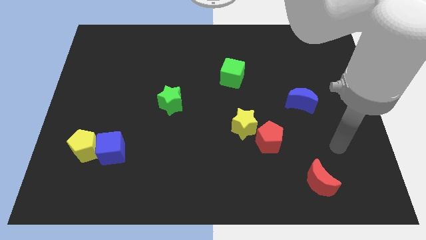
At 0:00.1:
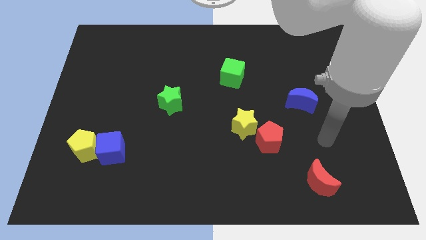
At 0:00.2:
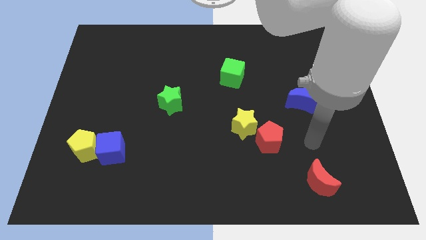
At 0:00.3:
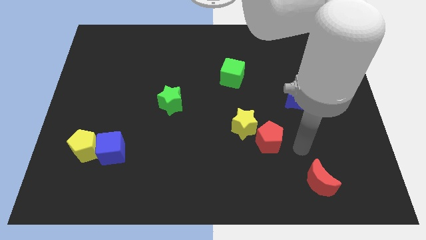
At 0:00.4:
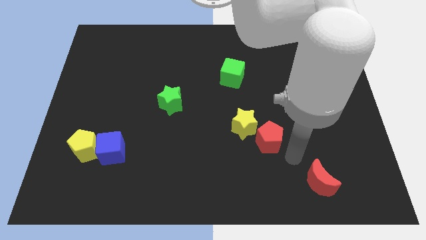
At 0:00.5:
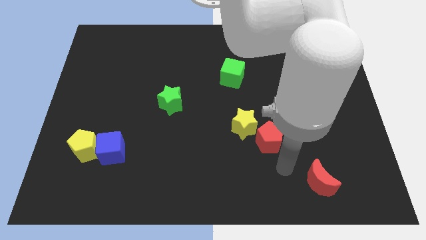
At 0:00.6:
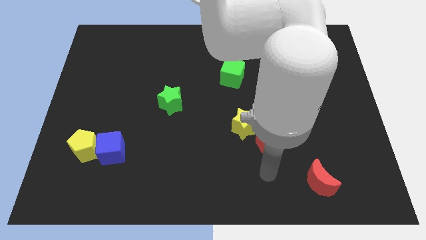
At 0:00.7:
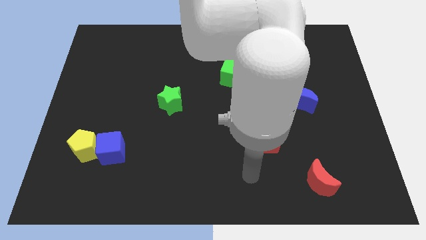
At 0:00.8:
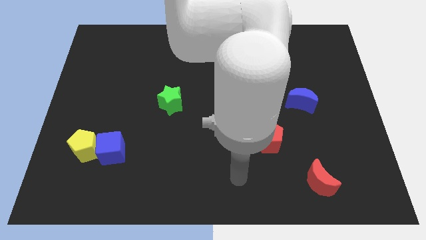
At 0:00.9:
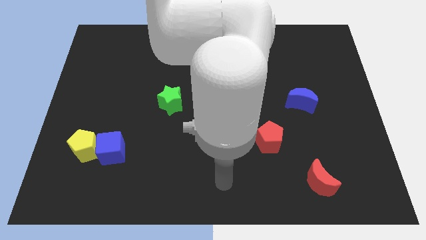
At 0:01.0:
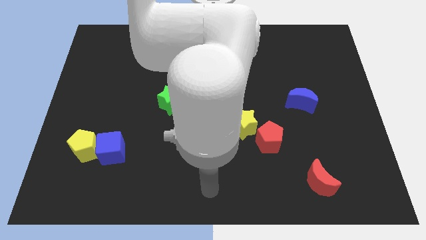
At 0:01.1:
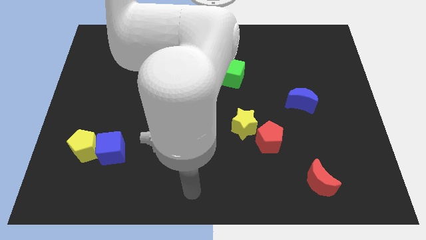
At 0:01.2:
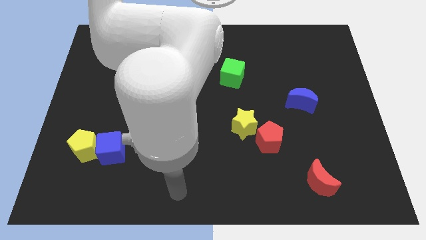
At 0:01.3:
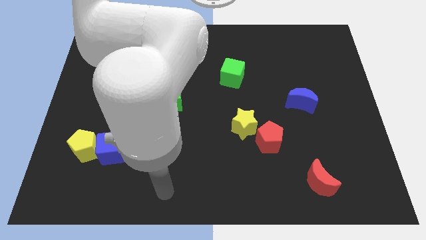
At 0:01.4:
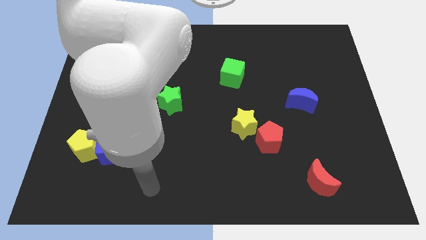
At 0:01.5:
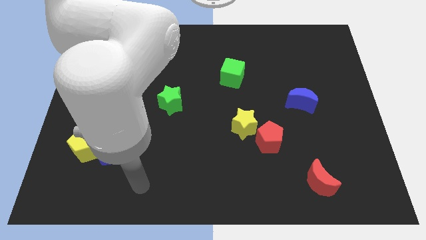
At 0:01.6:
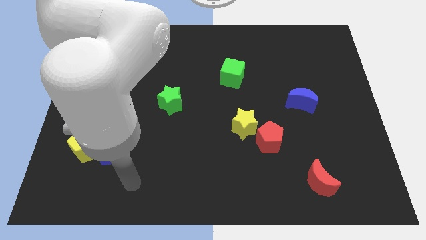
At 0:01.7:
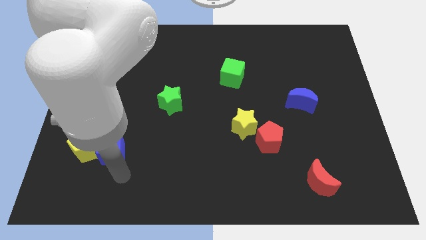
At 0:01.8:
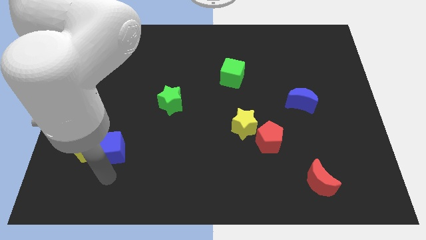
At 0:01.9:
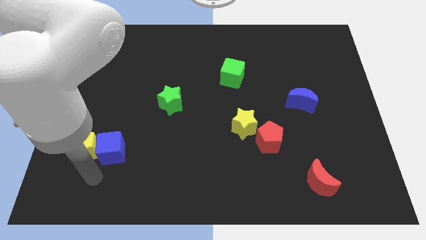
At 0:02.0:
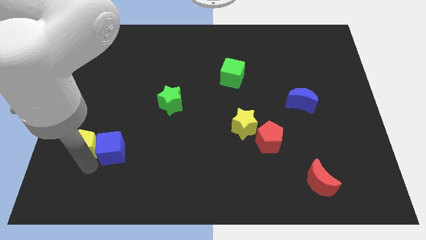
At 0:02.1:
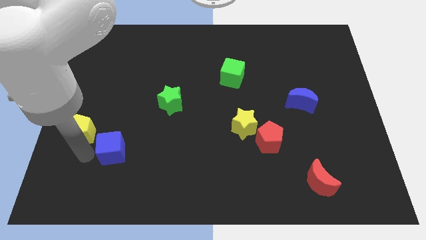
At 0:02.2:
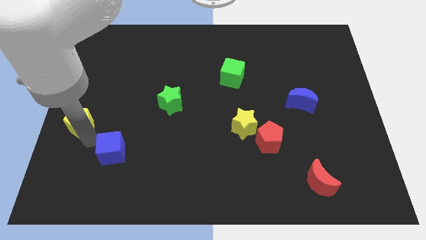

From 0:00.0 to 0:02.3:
pull the blue cube apart from the yellow pentagon

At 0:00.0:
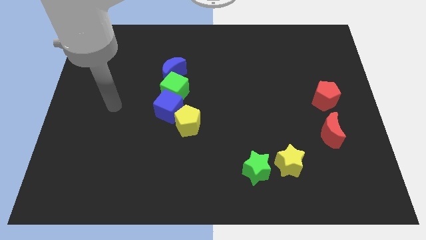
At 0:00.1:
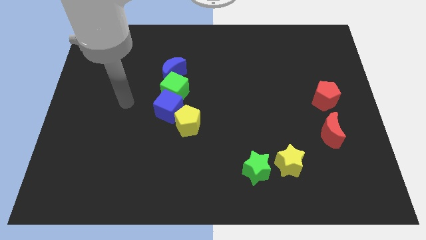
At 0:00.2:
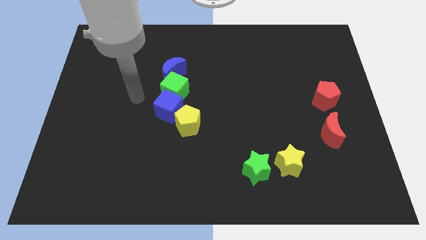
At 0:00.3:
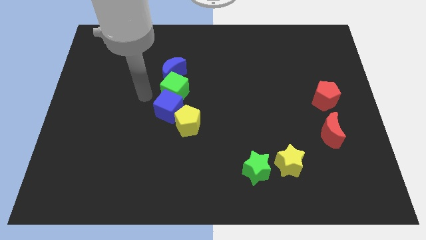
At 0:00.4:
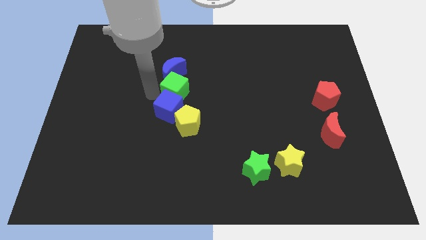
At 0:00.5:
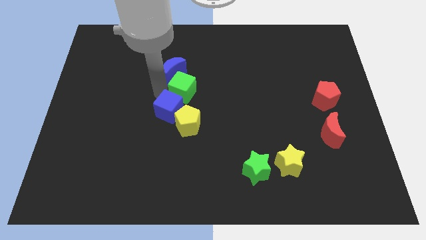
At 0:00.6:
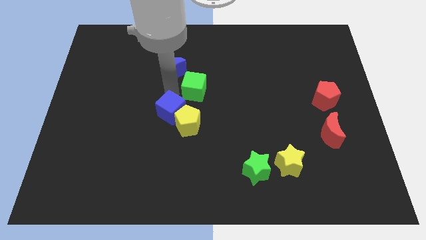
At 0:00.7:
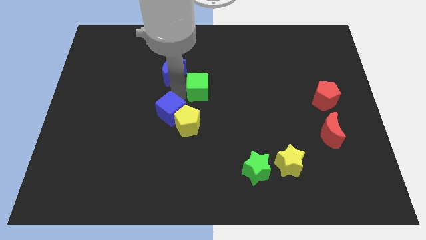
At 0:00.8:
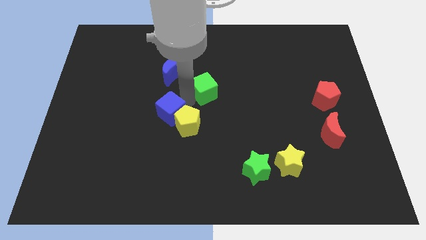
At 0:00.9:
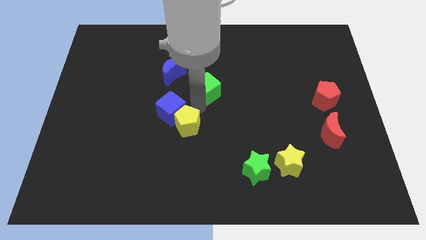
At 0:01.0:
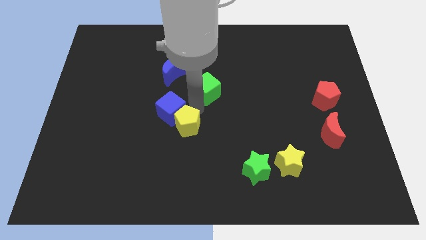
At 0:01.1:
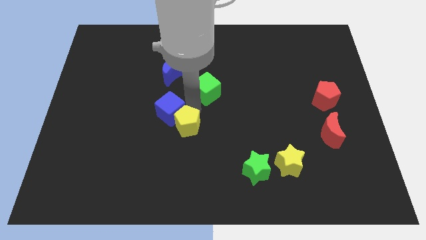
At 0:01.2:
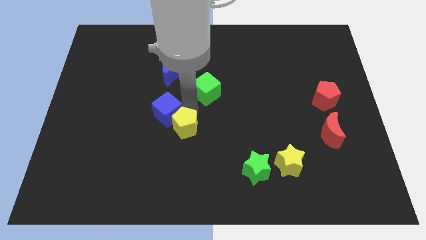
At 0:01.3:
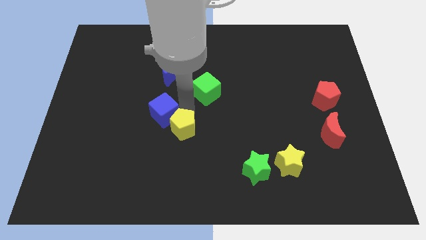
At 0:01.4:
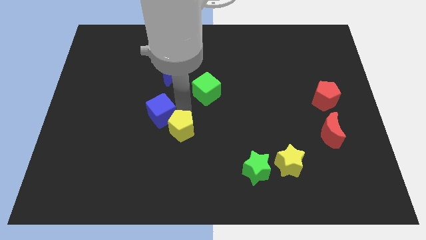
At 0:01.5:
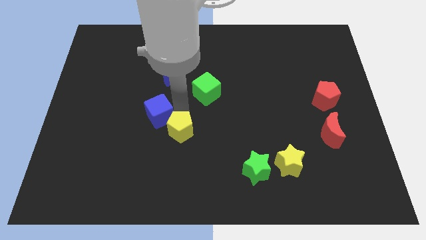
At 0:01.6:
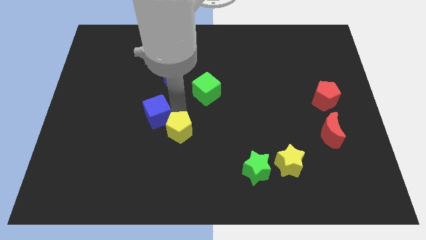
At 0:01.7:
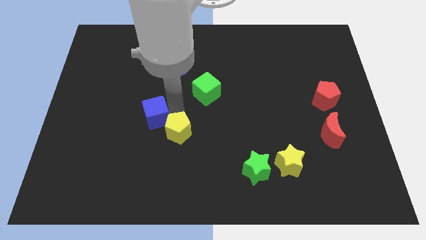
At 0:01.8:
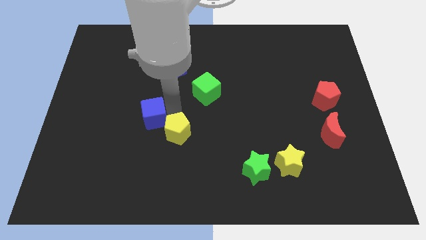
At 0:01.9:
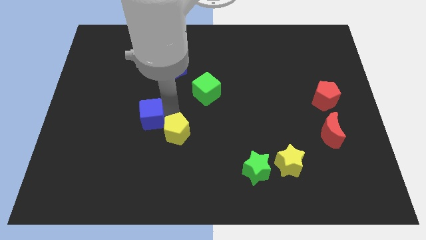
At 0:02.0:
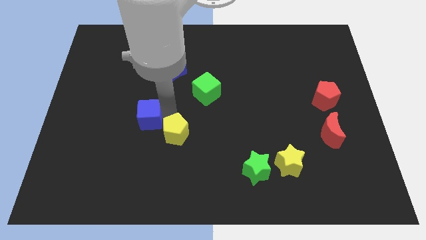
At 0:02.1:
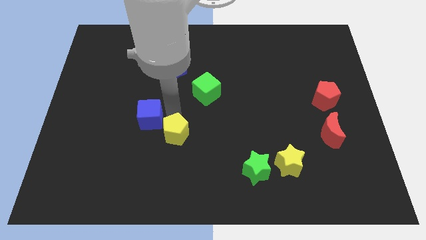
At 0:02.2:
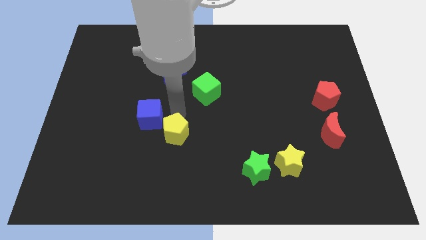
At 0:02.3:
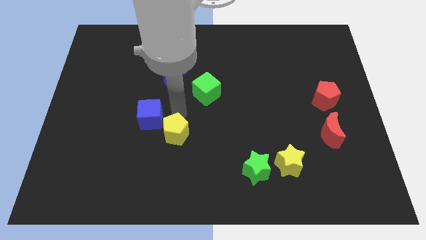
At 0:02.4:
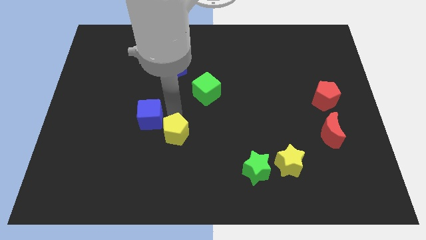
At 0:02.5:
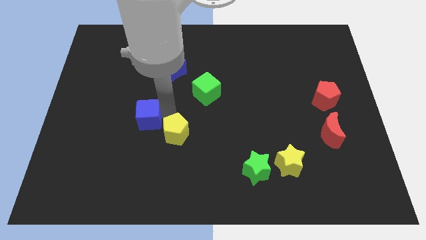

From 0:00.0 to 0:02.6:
move the blue cube away from the green cube and yellow pentagon

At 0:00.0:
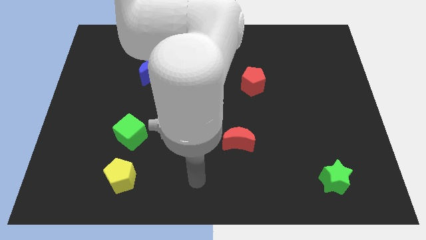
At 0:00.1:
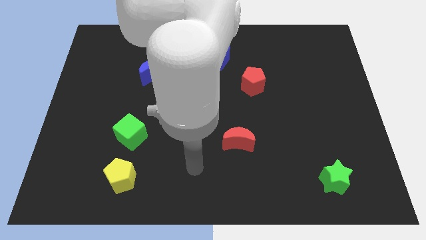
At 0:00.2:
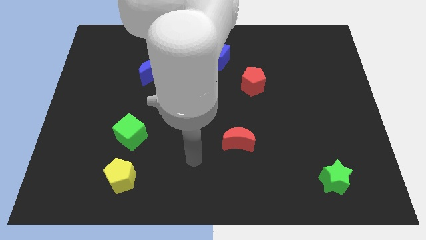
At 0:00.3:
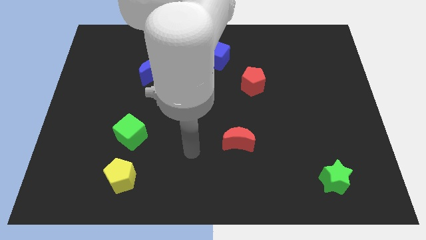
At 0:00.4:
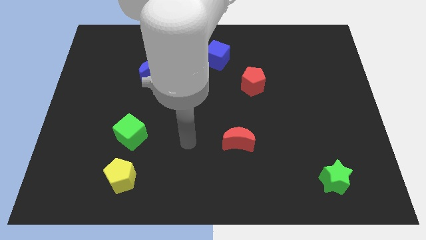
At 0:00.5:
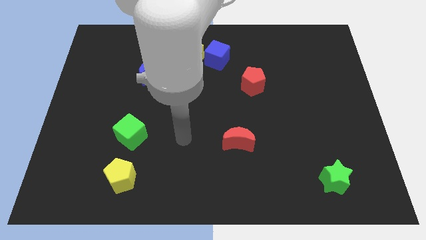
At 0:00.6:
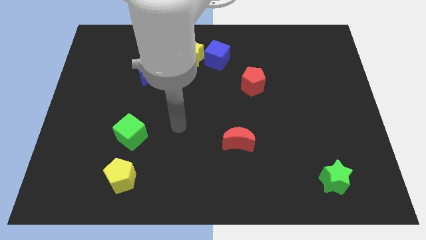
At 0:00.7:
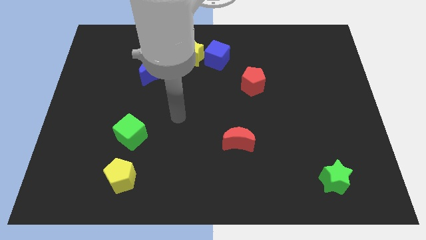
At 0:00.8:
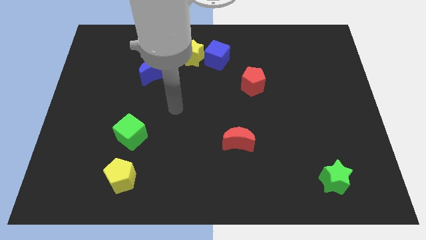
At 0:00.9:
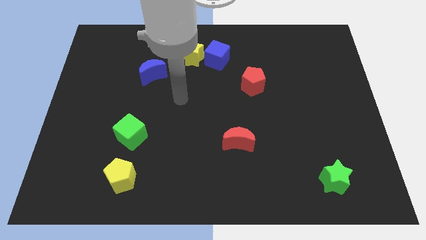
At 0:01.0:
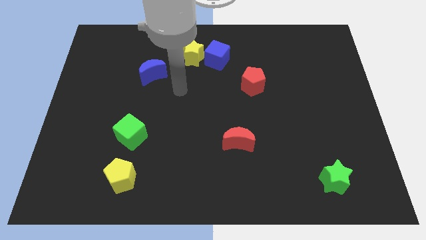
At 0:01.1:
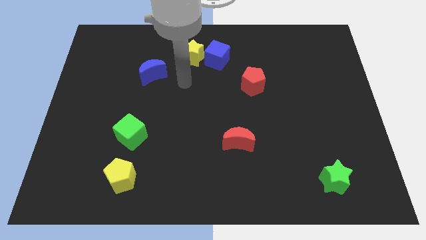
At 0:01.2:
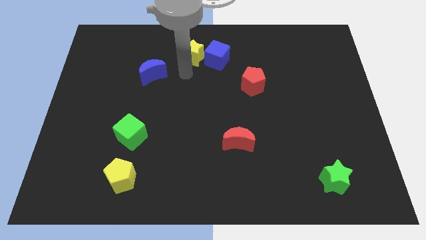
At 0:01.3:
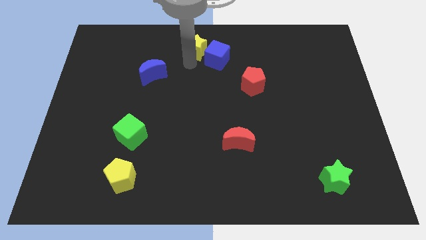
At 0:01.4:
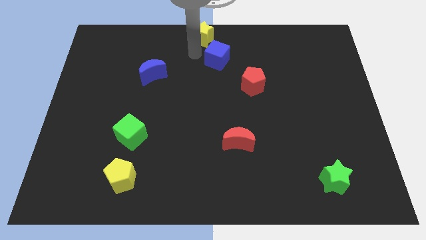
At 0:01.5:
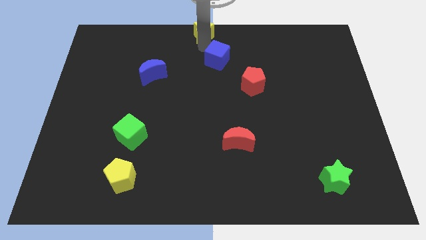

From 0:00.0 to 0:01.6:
move the blue cube away from the yellow star

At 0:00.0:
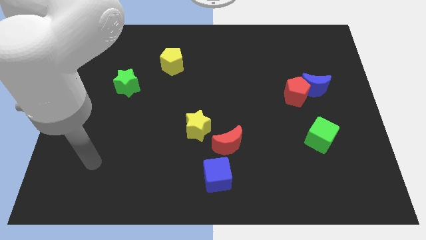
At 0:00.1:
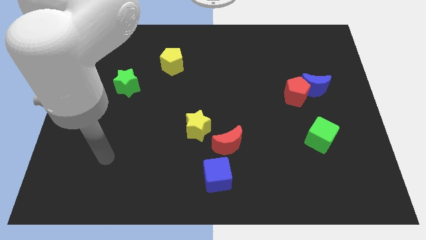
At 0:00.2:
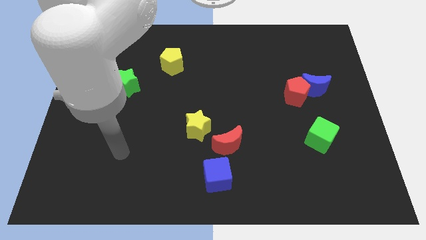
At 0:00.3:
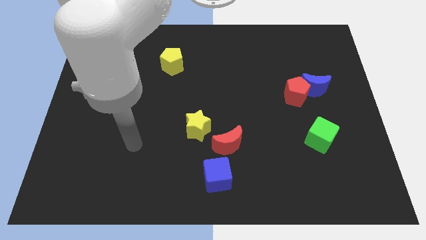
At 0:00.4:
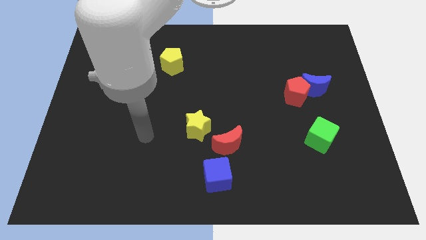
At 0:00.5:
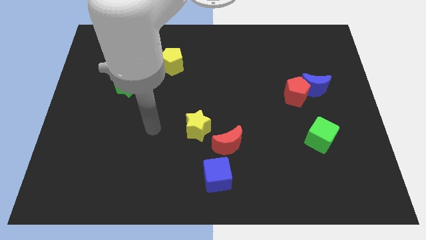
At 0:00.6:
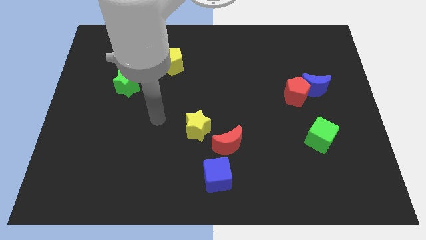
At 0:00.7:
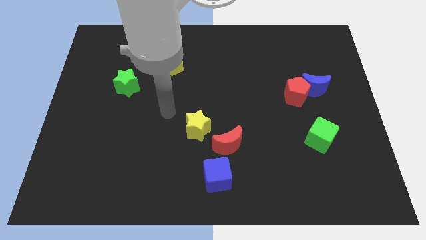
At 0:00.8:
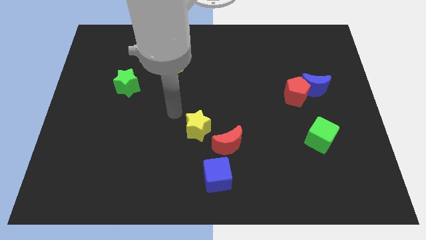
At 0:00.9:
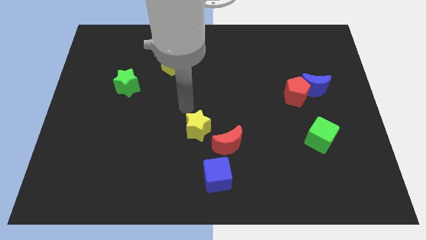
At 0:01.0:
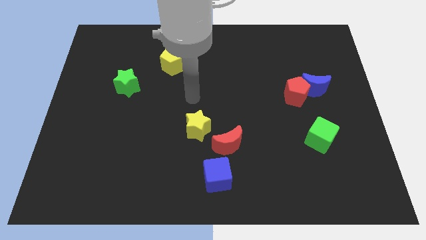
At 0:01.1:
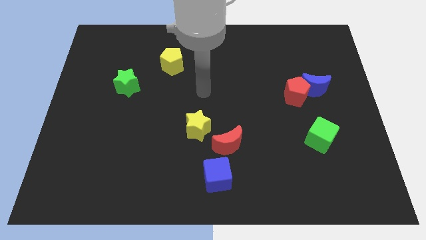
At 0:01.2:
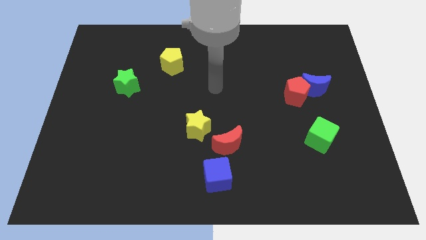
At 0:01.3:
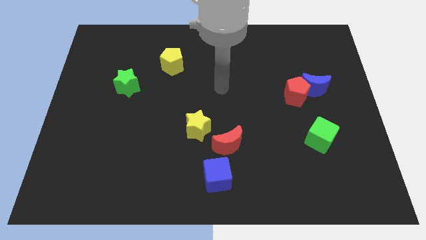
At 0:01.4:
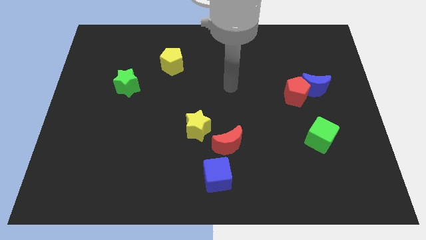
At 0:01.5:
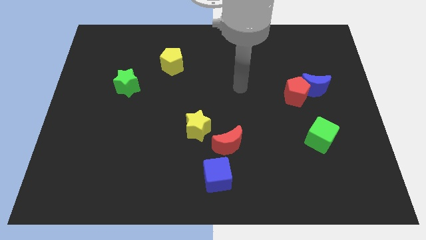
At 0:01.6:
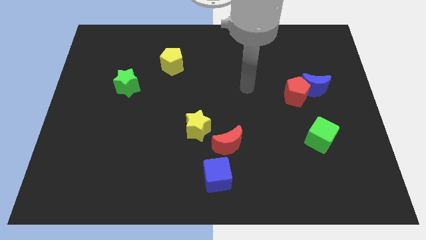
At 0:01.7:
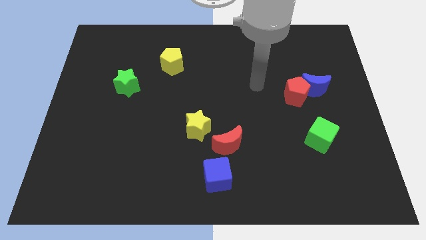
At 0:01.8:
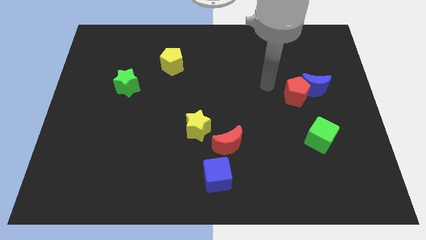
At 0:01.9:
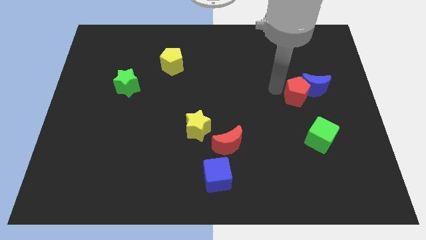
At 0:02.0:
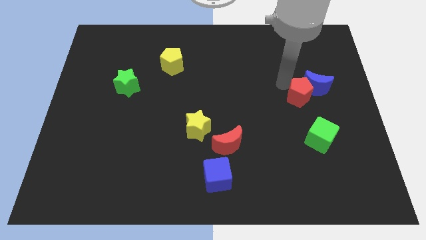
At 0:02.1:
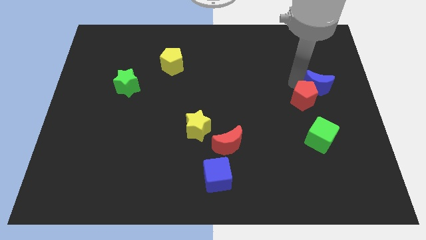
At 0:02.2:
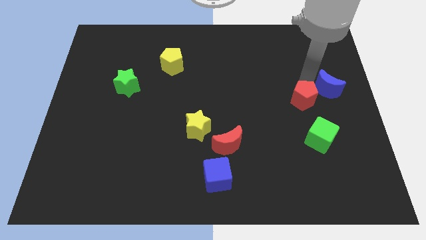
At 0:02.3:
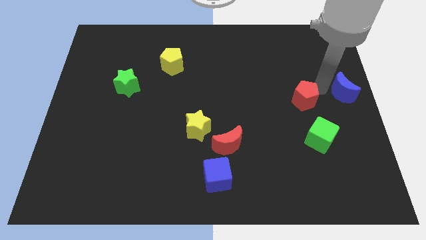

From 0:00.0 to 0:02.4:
separate the red pentagon from the blue moon
